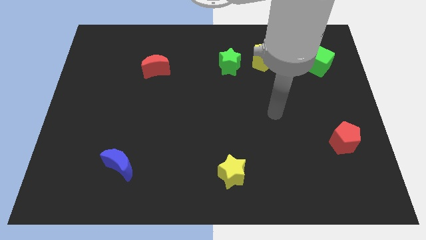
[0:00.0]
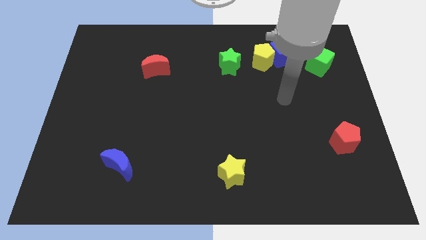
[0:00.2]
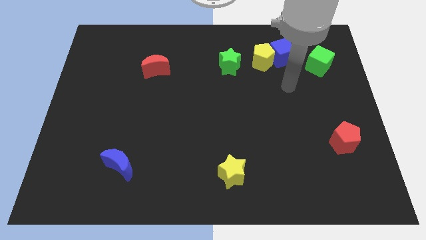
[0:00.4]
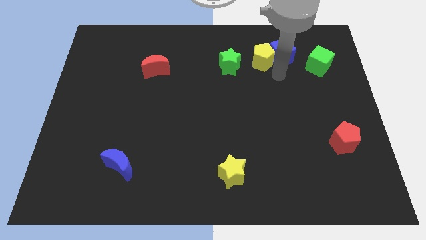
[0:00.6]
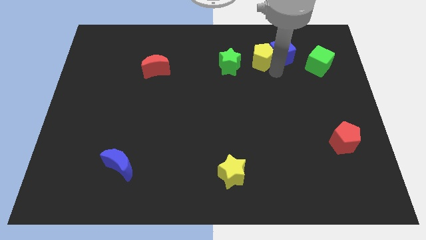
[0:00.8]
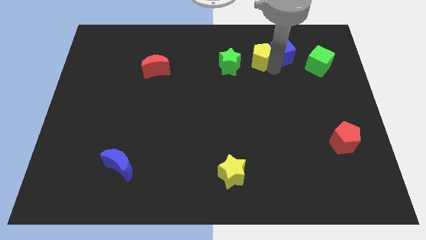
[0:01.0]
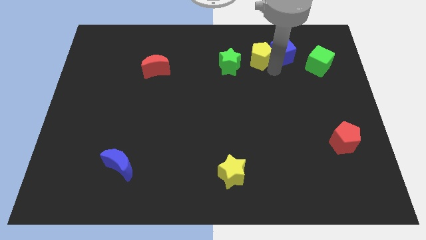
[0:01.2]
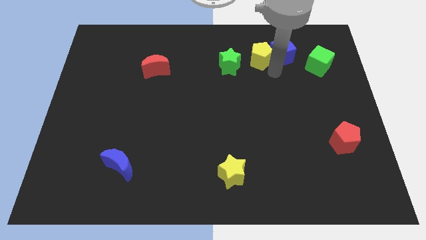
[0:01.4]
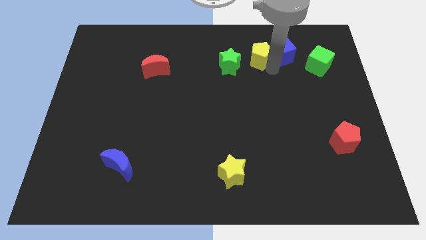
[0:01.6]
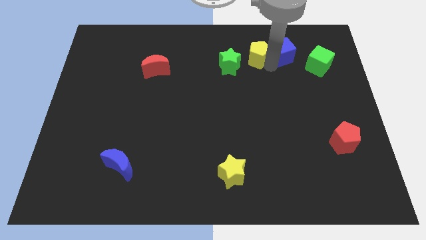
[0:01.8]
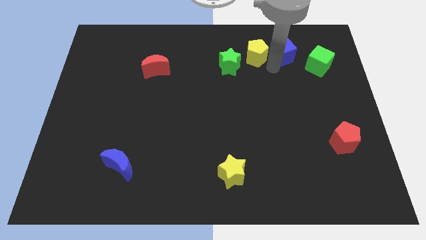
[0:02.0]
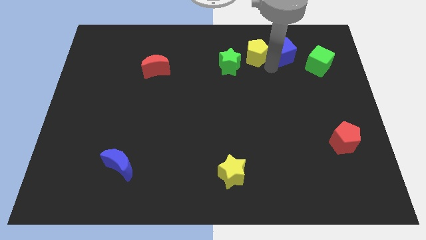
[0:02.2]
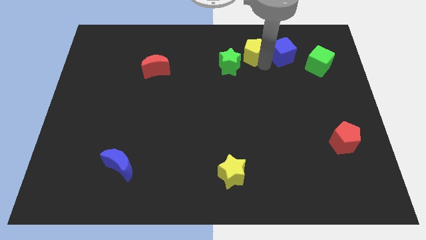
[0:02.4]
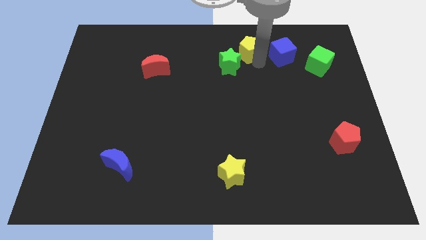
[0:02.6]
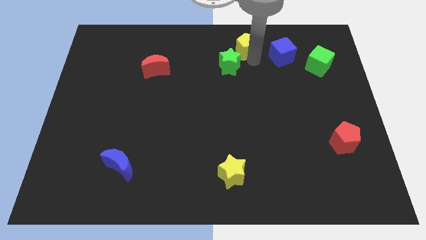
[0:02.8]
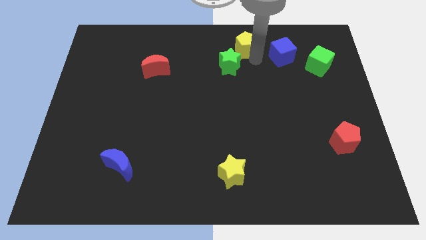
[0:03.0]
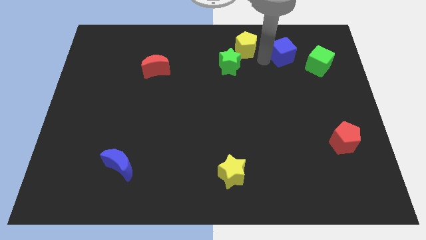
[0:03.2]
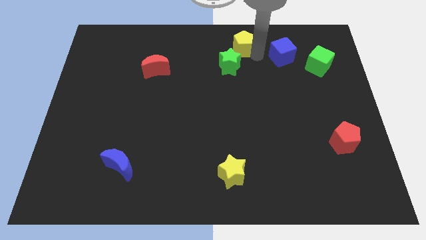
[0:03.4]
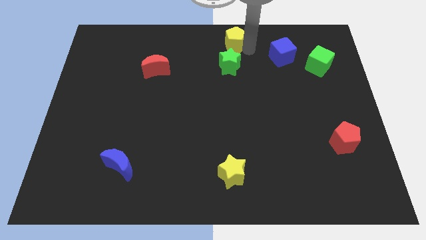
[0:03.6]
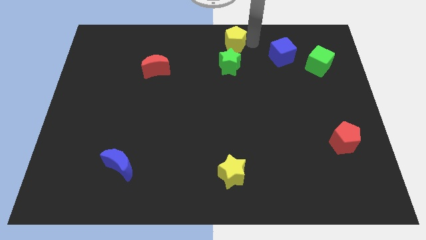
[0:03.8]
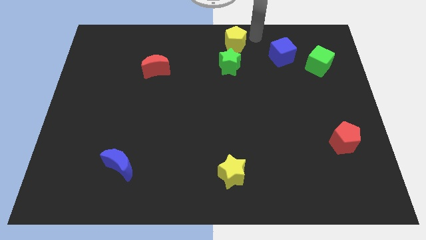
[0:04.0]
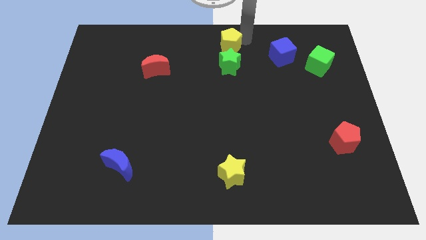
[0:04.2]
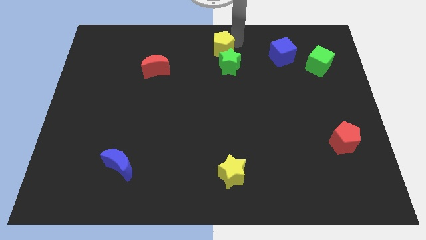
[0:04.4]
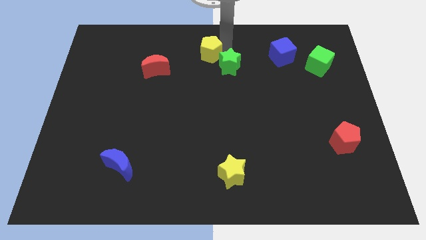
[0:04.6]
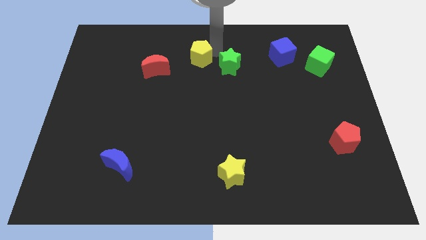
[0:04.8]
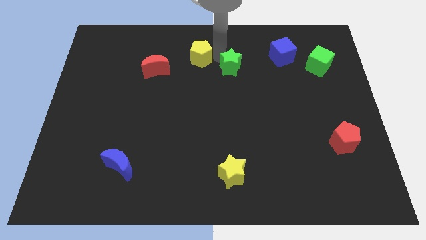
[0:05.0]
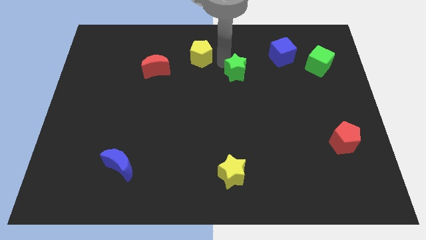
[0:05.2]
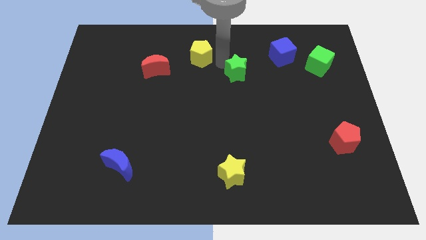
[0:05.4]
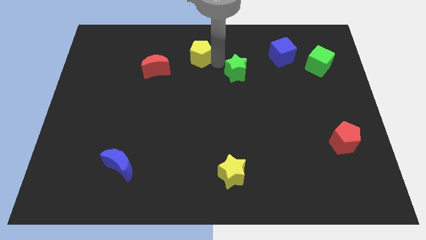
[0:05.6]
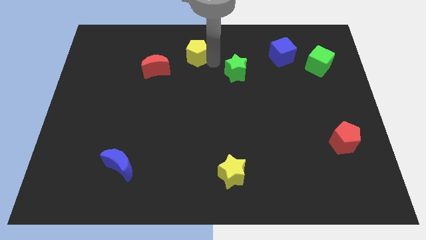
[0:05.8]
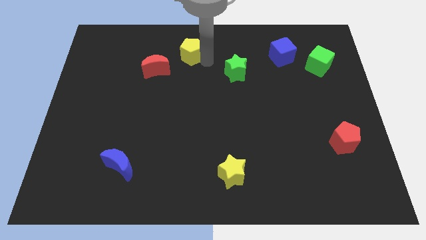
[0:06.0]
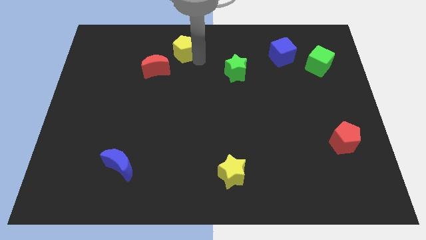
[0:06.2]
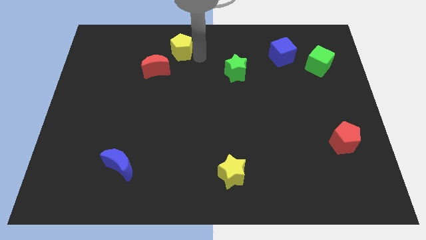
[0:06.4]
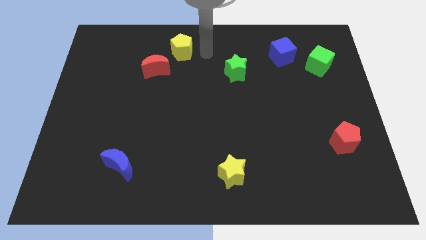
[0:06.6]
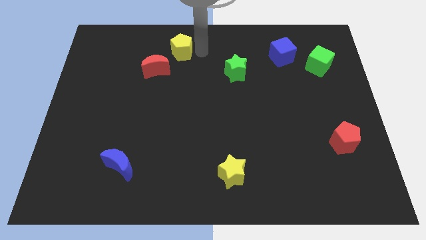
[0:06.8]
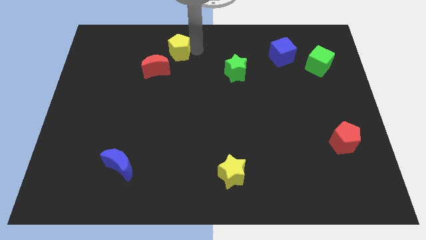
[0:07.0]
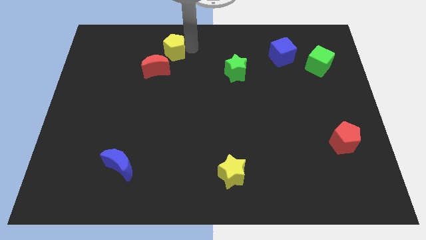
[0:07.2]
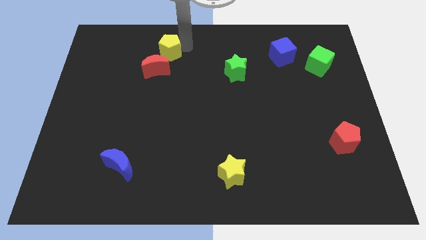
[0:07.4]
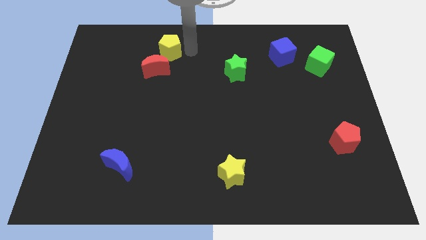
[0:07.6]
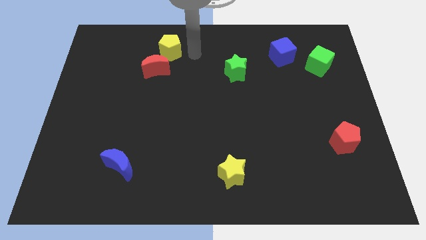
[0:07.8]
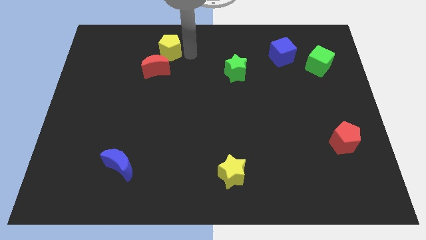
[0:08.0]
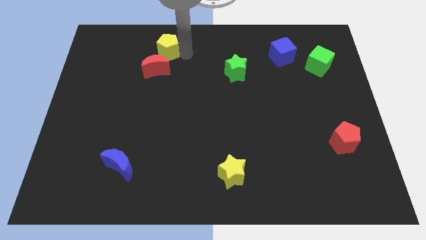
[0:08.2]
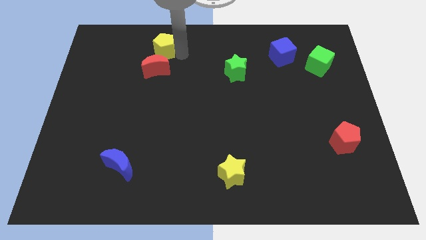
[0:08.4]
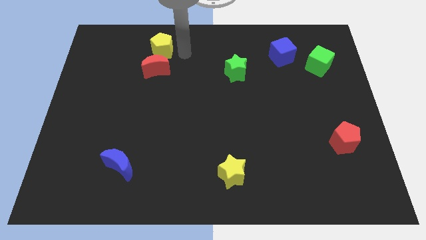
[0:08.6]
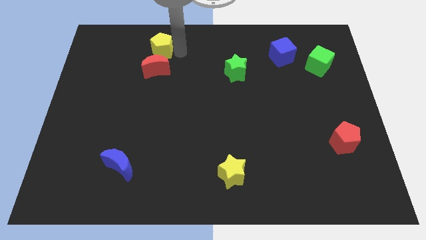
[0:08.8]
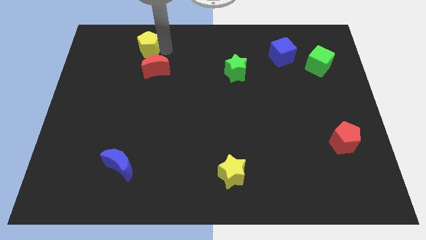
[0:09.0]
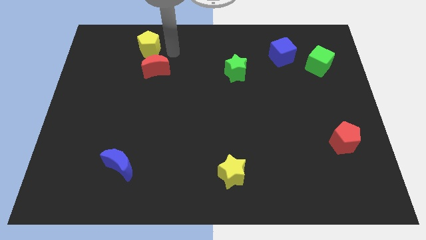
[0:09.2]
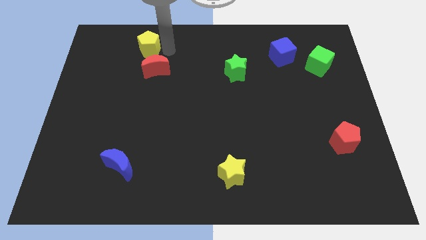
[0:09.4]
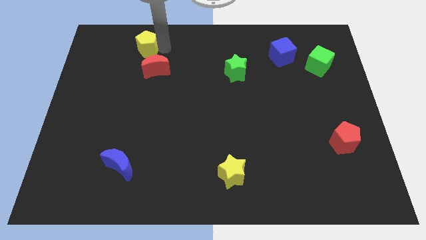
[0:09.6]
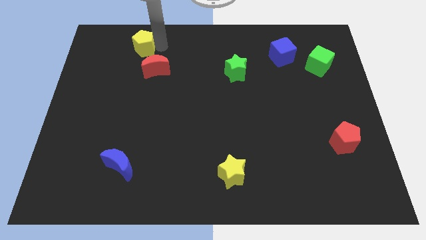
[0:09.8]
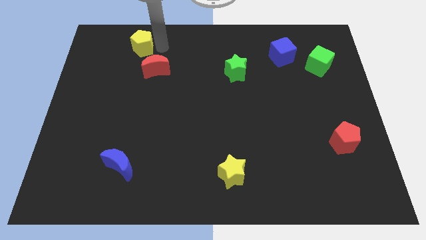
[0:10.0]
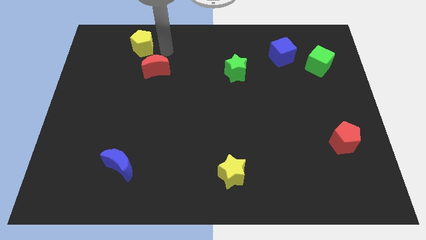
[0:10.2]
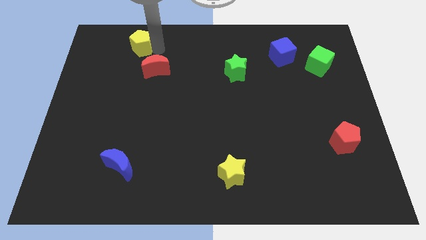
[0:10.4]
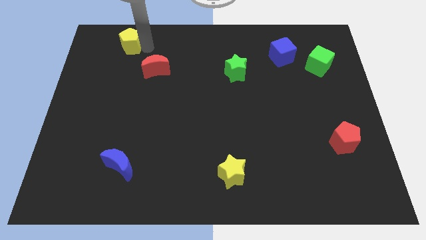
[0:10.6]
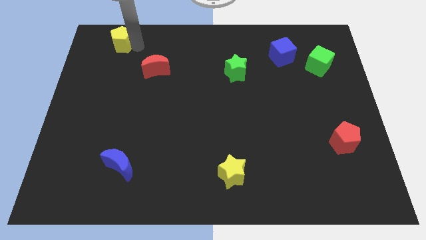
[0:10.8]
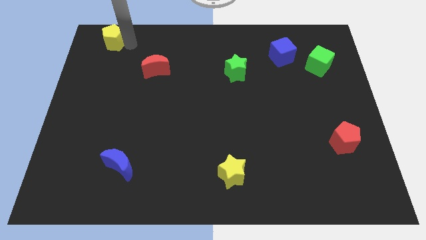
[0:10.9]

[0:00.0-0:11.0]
move the yellow pentagon to the top left of the board
